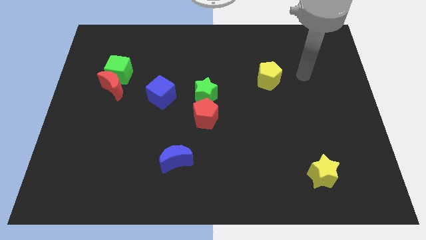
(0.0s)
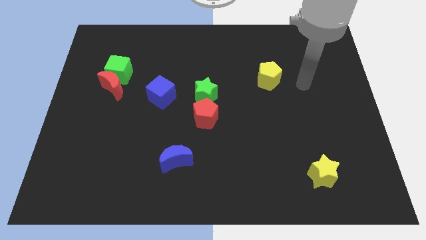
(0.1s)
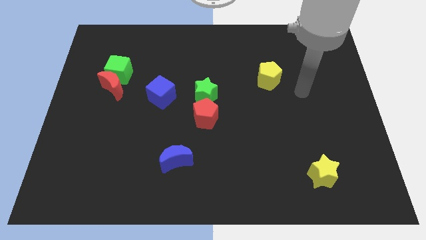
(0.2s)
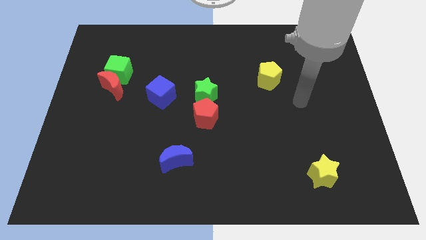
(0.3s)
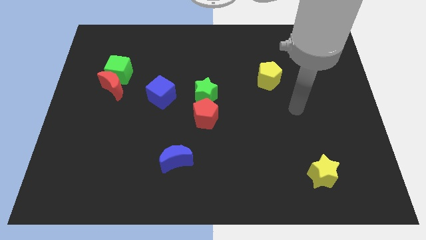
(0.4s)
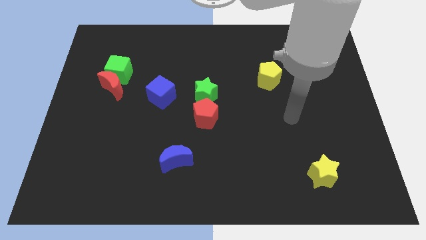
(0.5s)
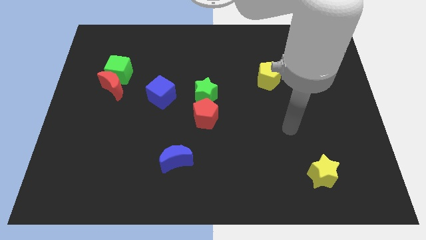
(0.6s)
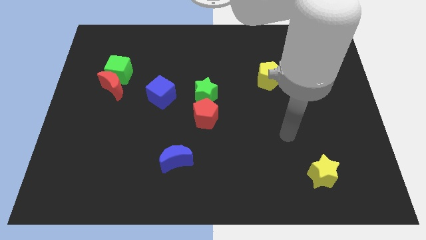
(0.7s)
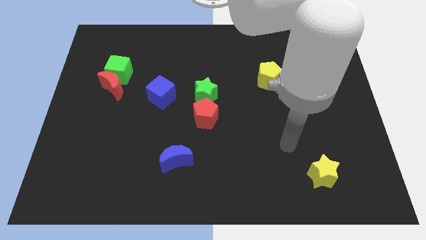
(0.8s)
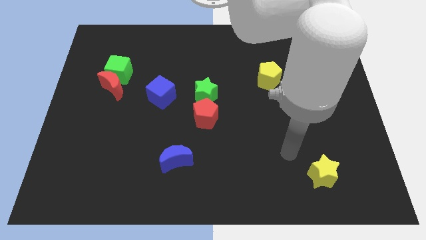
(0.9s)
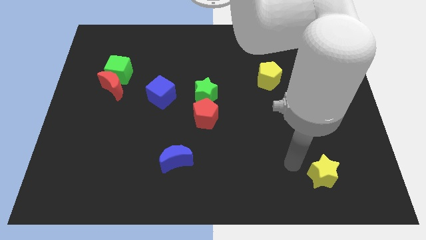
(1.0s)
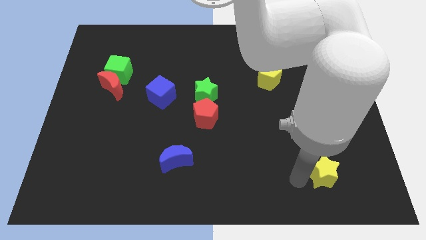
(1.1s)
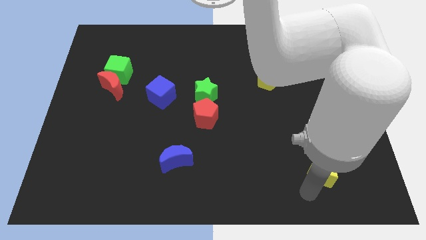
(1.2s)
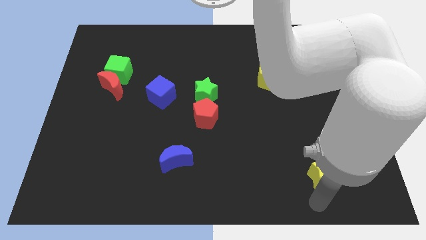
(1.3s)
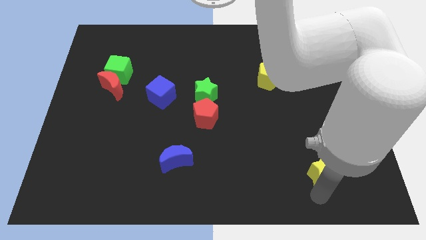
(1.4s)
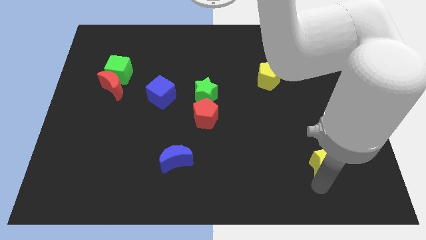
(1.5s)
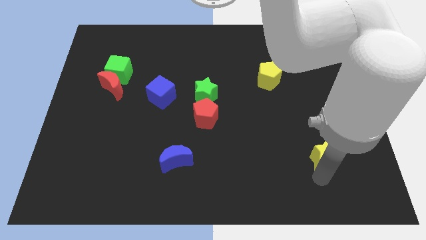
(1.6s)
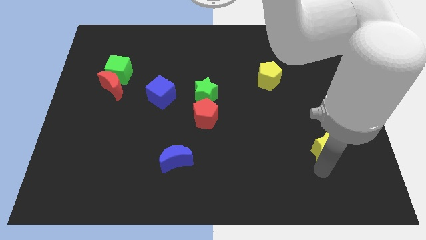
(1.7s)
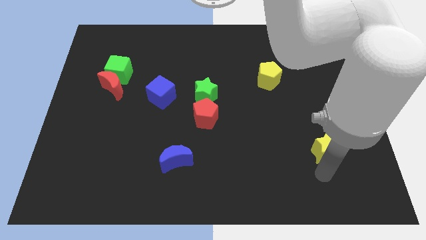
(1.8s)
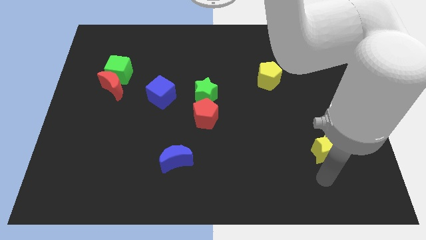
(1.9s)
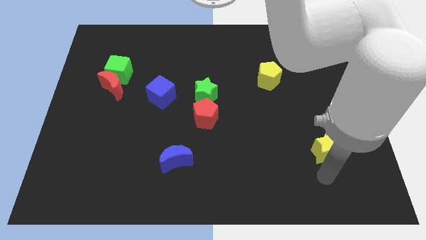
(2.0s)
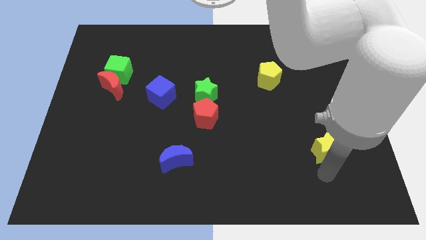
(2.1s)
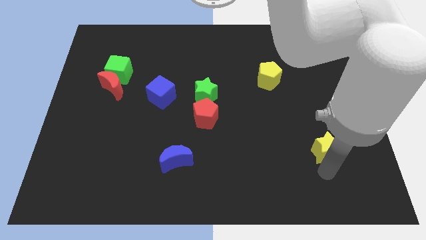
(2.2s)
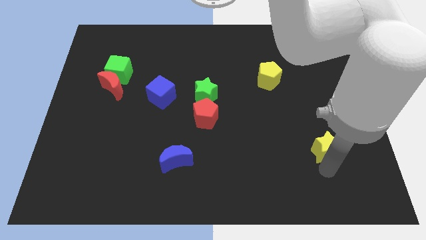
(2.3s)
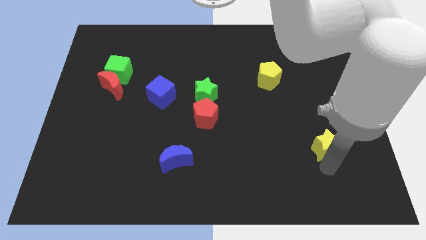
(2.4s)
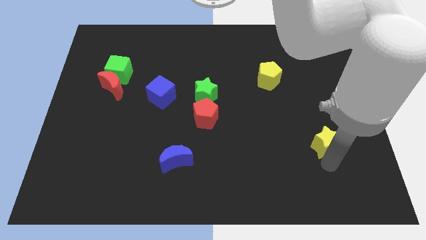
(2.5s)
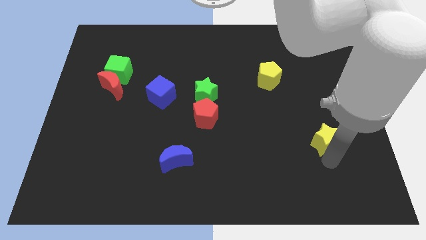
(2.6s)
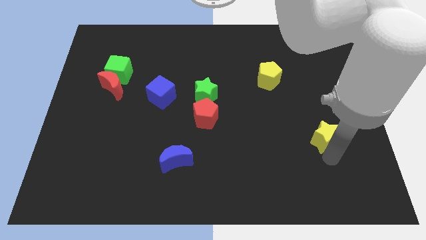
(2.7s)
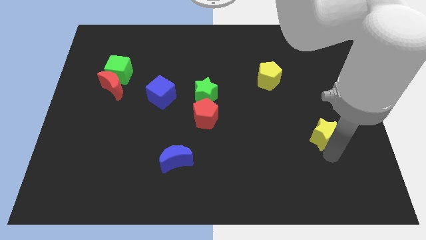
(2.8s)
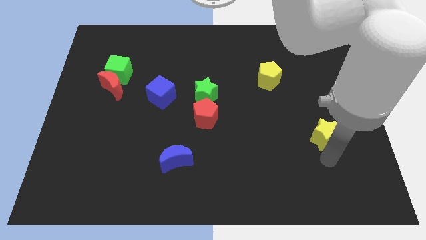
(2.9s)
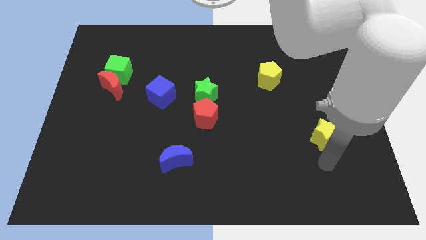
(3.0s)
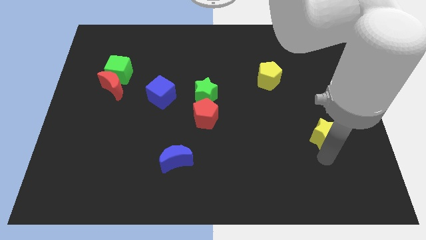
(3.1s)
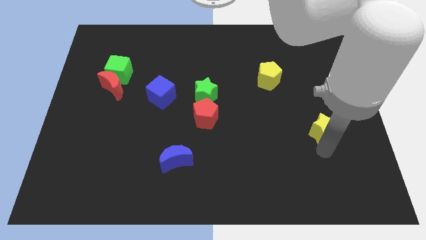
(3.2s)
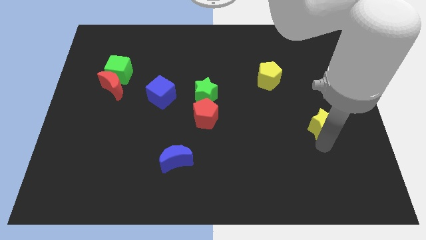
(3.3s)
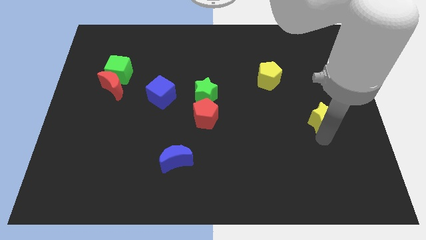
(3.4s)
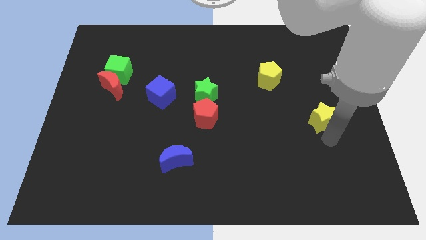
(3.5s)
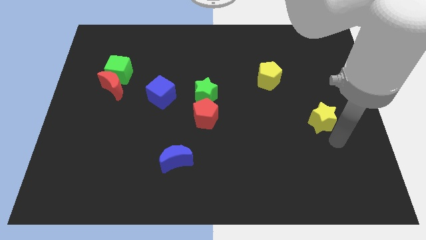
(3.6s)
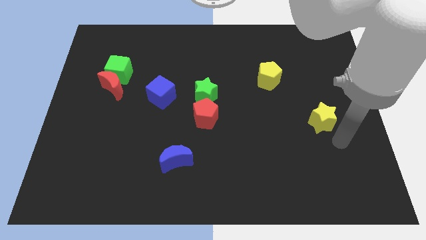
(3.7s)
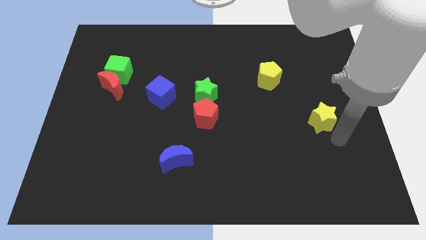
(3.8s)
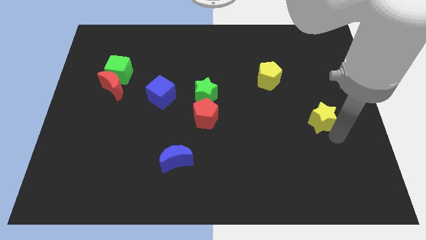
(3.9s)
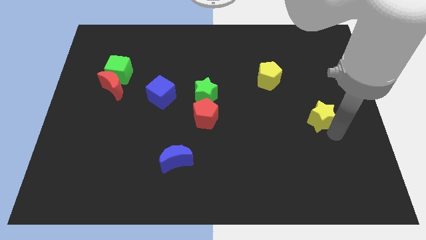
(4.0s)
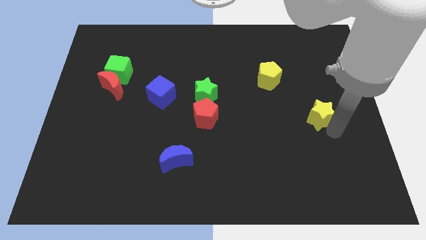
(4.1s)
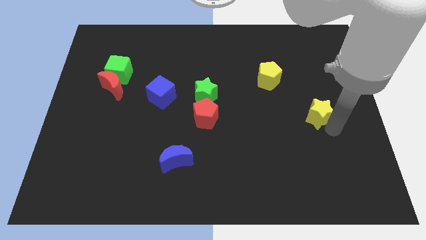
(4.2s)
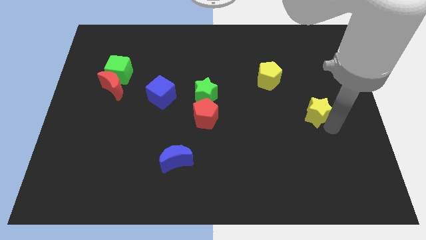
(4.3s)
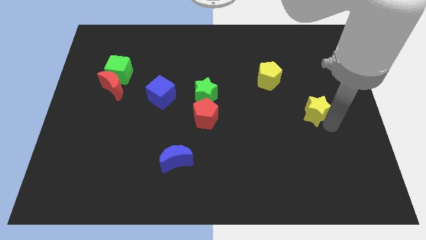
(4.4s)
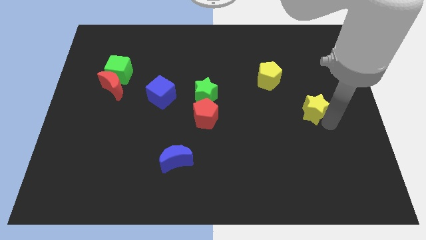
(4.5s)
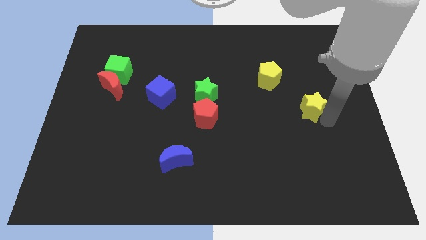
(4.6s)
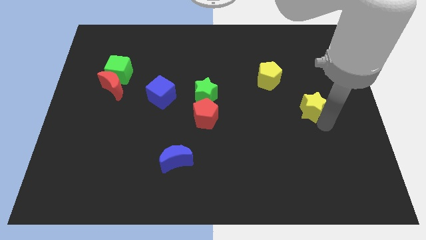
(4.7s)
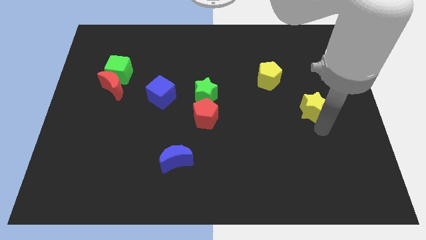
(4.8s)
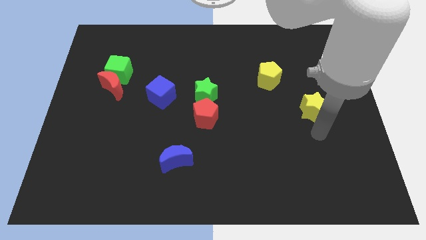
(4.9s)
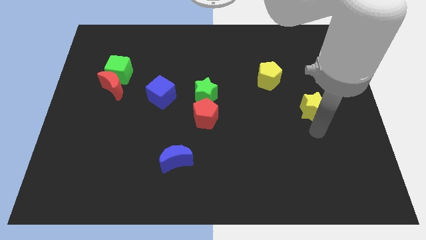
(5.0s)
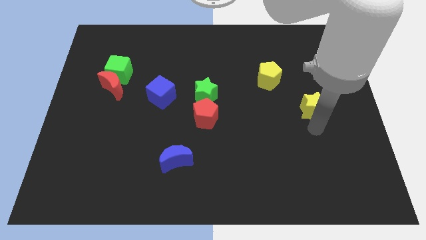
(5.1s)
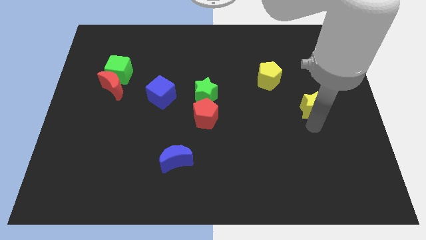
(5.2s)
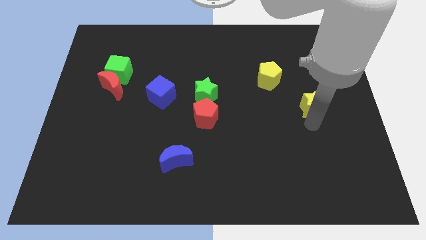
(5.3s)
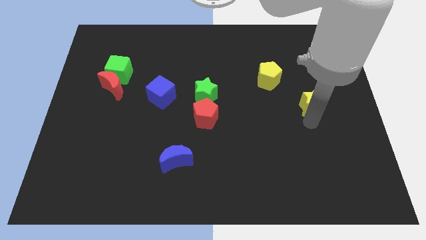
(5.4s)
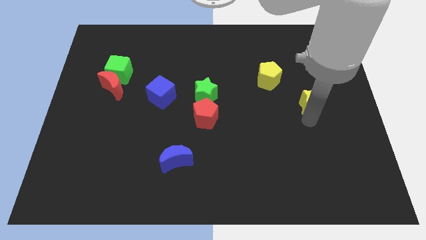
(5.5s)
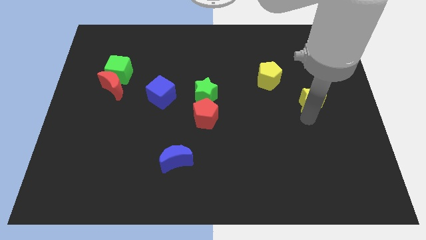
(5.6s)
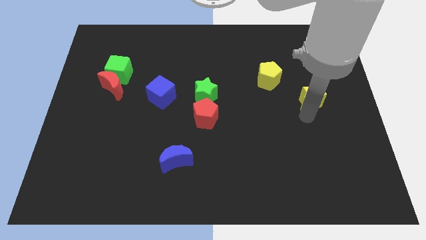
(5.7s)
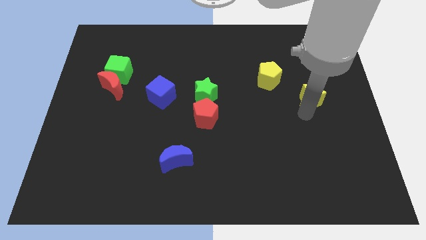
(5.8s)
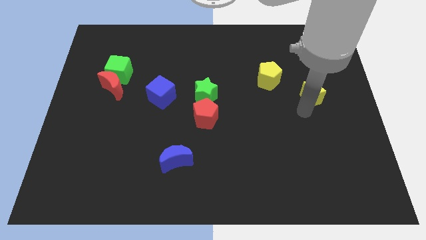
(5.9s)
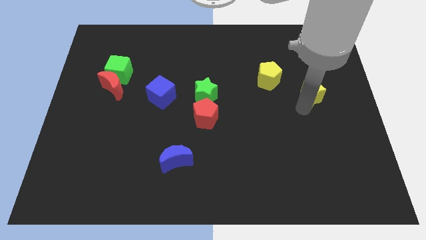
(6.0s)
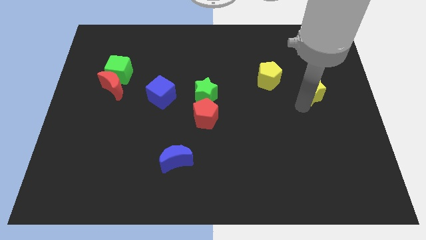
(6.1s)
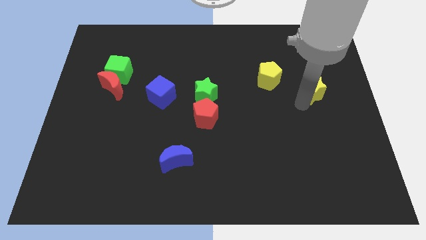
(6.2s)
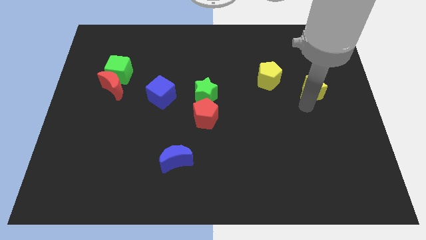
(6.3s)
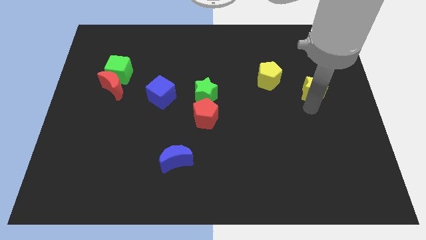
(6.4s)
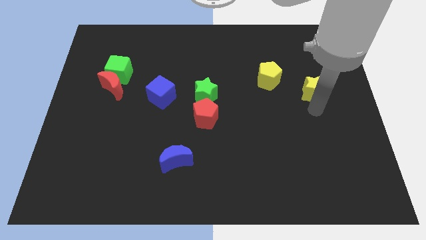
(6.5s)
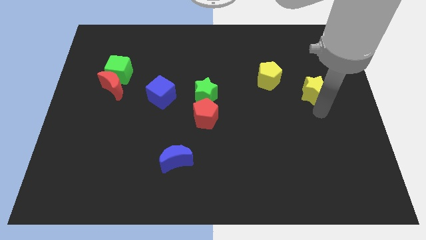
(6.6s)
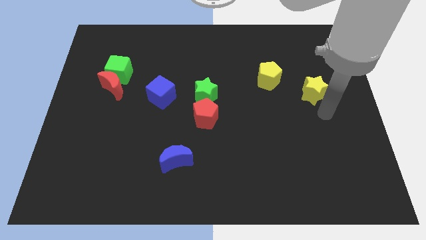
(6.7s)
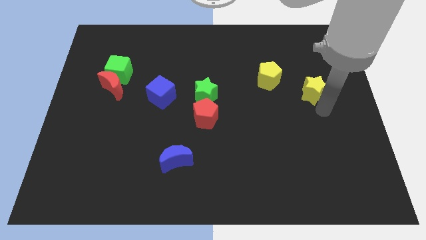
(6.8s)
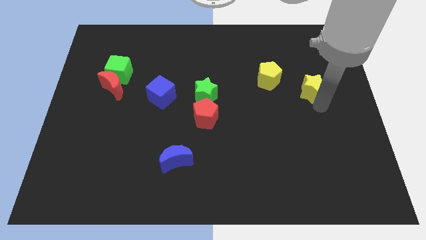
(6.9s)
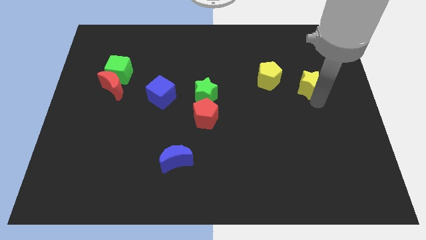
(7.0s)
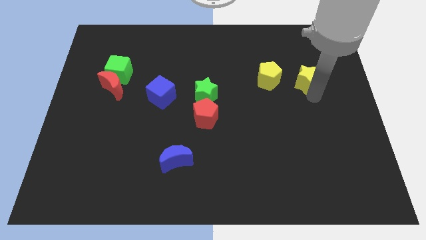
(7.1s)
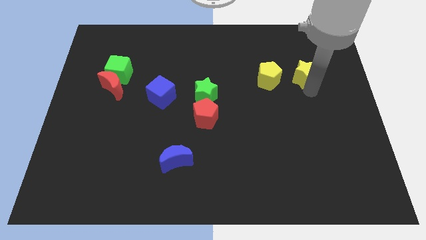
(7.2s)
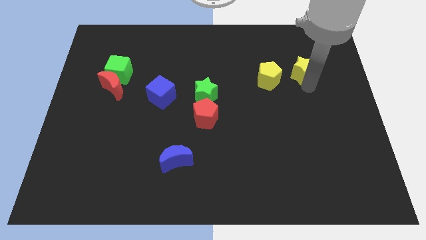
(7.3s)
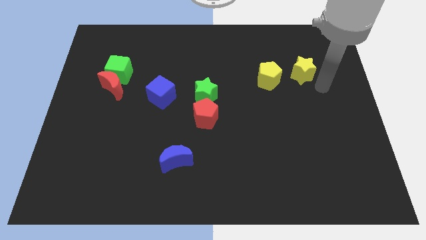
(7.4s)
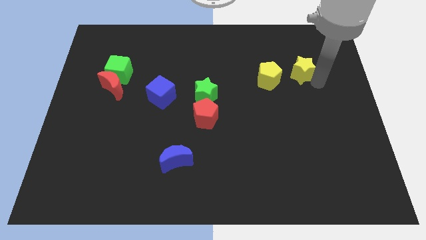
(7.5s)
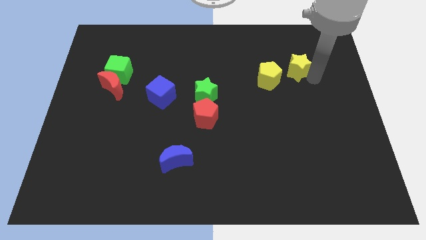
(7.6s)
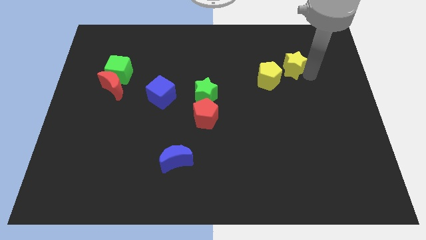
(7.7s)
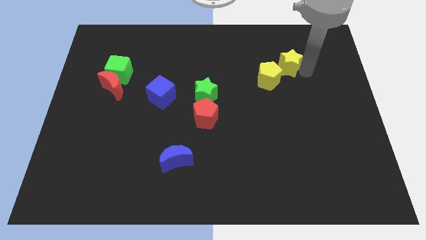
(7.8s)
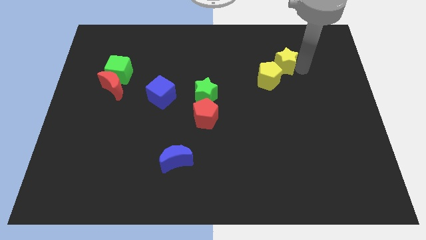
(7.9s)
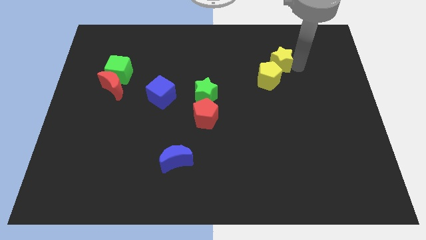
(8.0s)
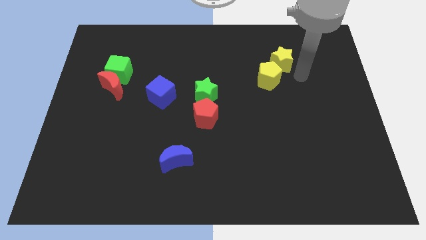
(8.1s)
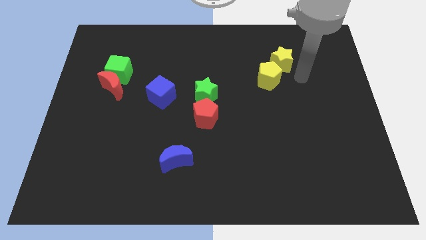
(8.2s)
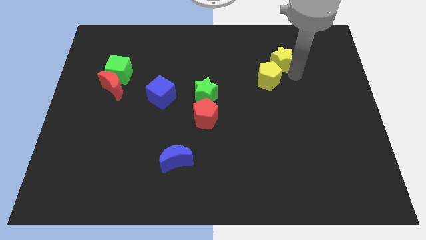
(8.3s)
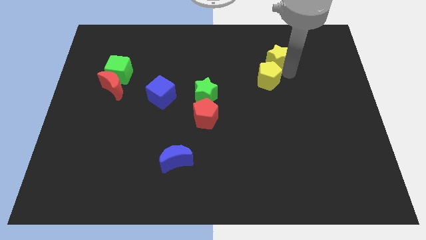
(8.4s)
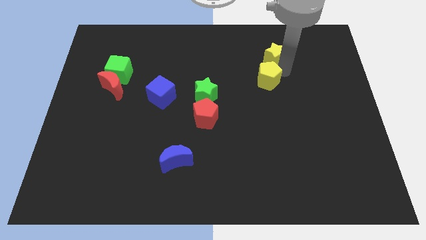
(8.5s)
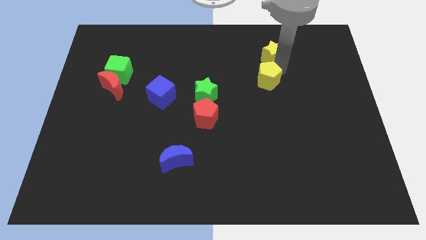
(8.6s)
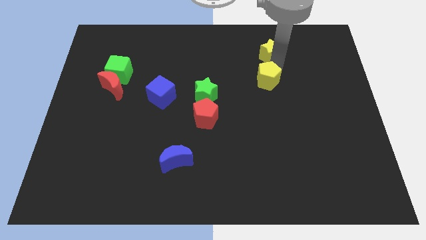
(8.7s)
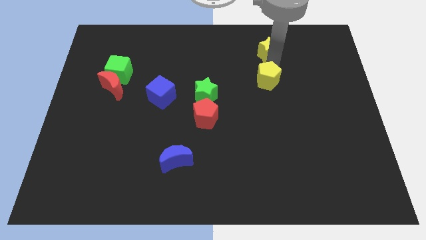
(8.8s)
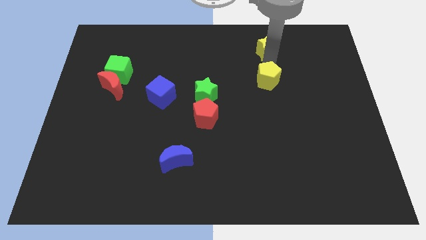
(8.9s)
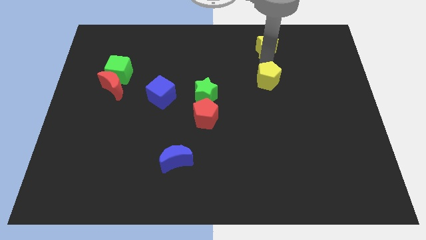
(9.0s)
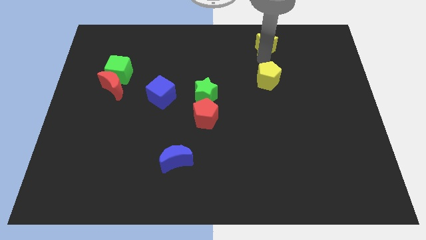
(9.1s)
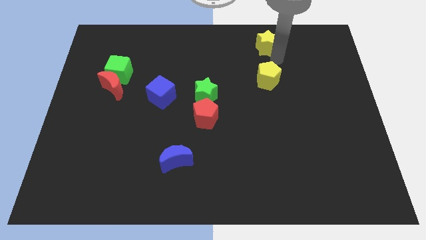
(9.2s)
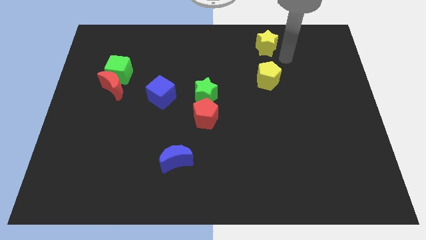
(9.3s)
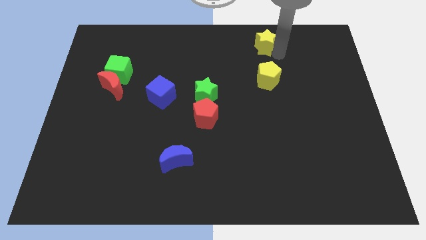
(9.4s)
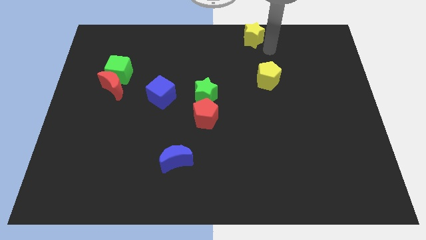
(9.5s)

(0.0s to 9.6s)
move the yellow star to the top side
